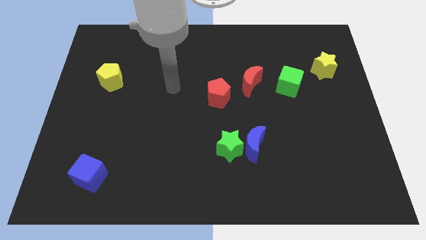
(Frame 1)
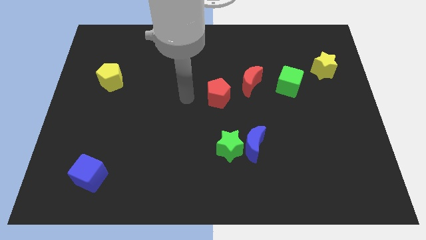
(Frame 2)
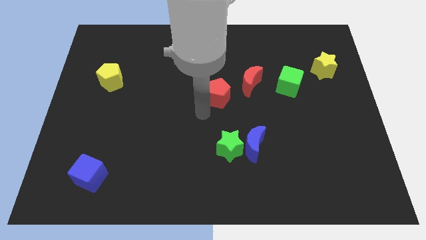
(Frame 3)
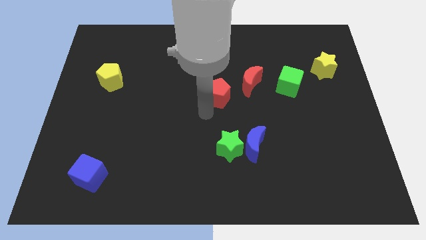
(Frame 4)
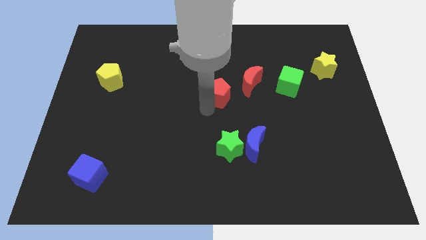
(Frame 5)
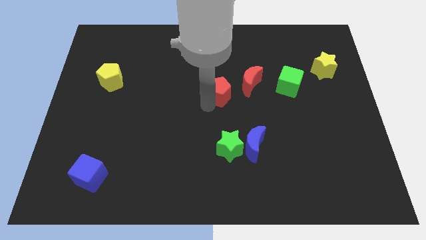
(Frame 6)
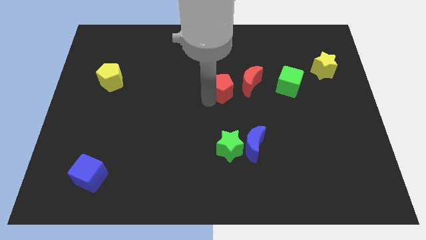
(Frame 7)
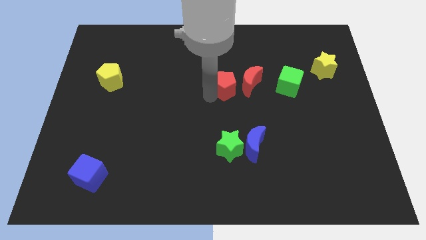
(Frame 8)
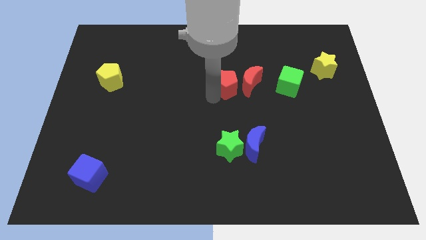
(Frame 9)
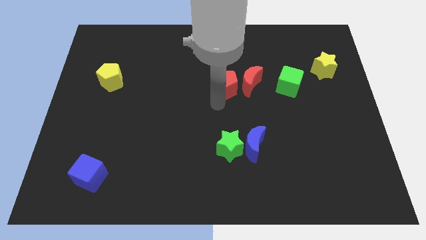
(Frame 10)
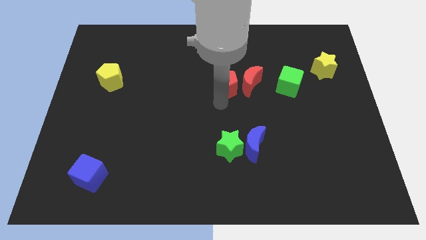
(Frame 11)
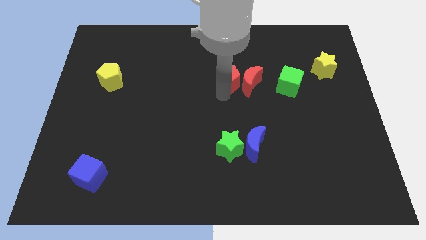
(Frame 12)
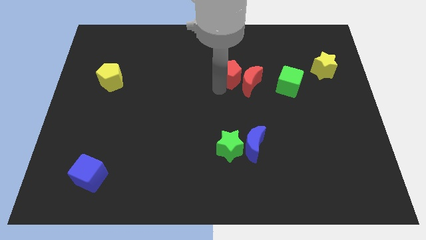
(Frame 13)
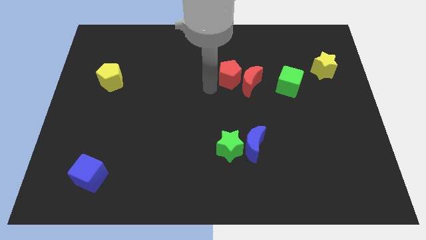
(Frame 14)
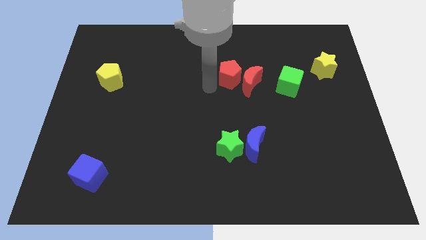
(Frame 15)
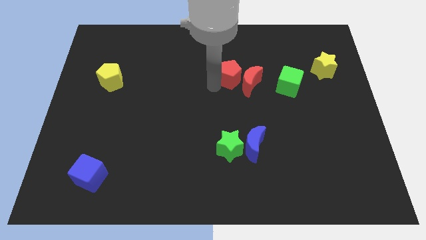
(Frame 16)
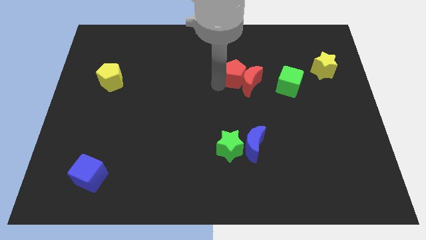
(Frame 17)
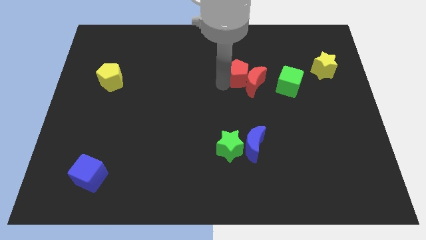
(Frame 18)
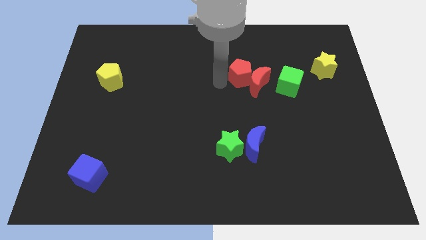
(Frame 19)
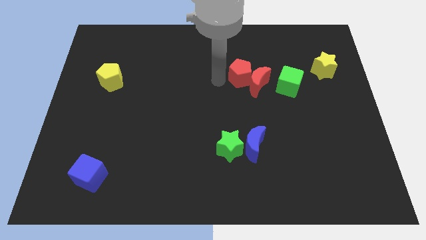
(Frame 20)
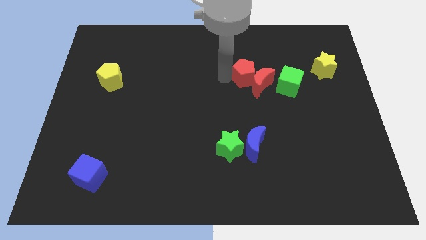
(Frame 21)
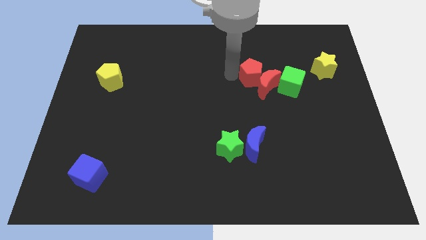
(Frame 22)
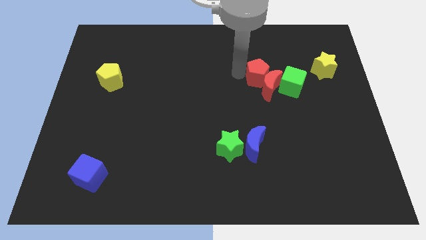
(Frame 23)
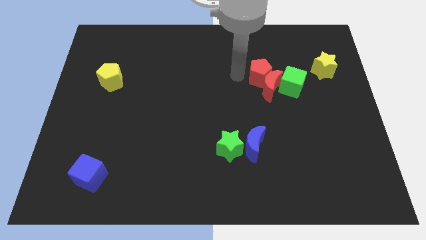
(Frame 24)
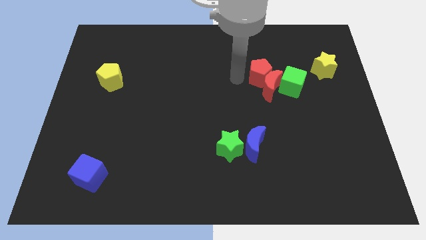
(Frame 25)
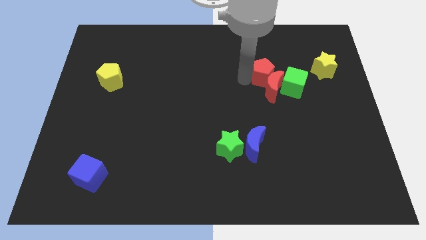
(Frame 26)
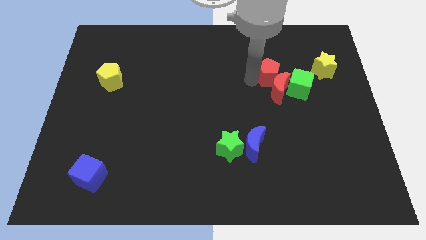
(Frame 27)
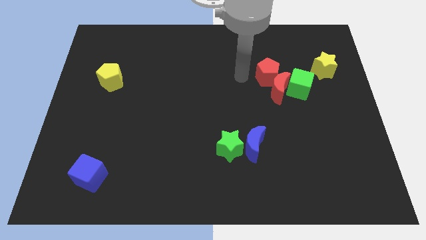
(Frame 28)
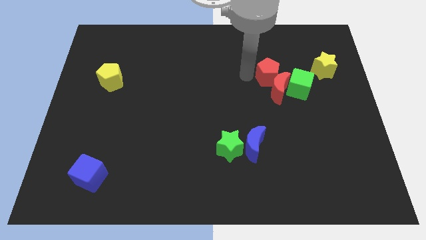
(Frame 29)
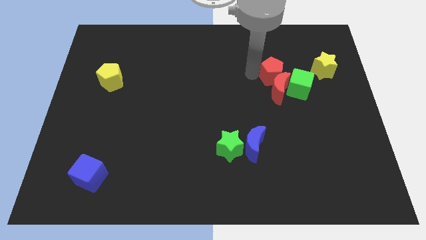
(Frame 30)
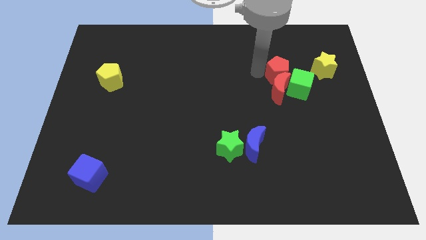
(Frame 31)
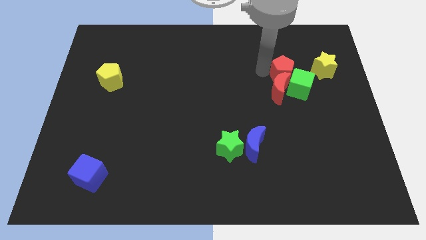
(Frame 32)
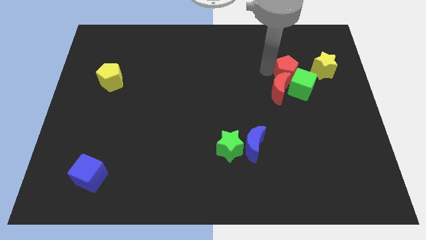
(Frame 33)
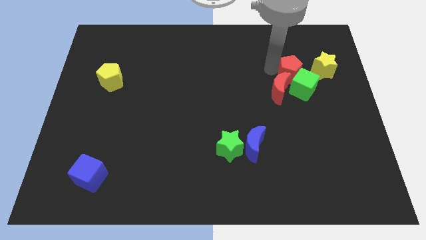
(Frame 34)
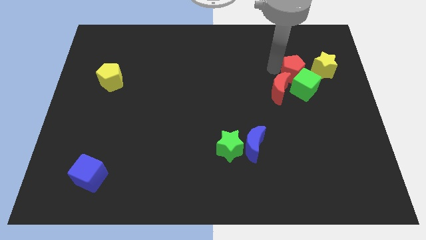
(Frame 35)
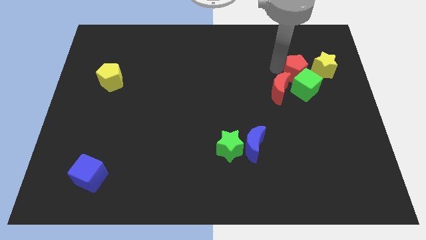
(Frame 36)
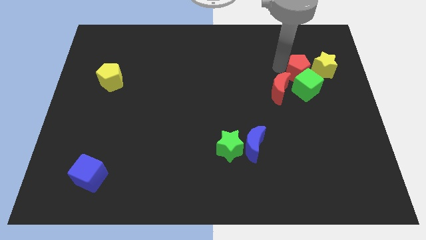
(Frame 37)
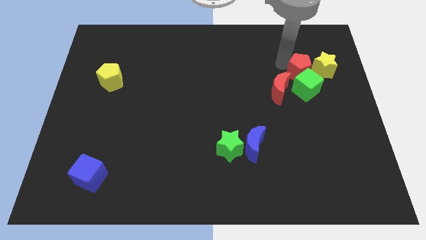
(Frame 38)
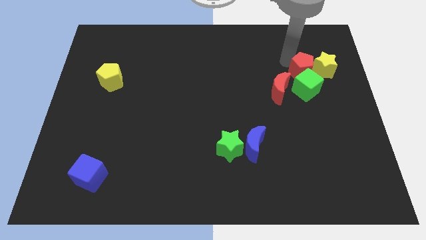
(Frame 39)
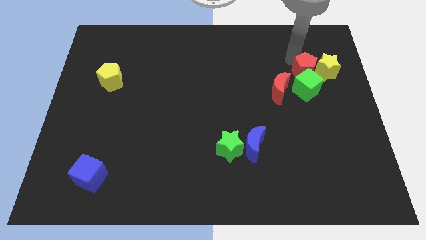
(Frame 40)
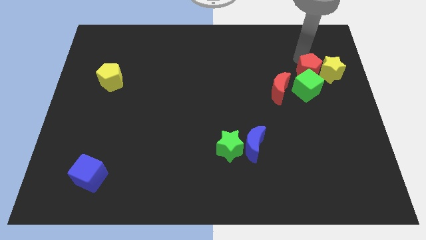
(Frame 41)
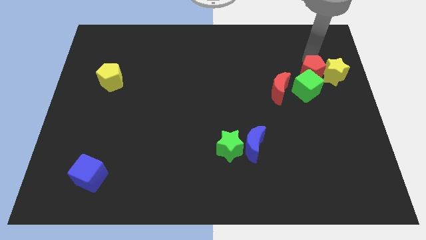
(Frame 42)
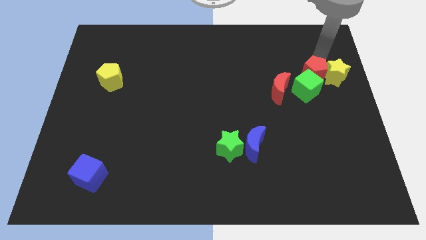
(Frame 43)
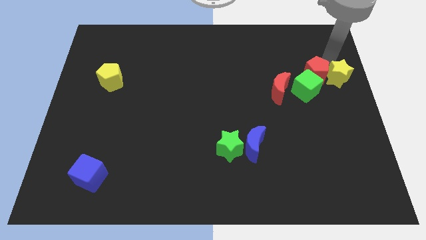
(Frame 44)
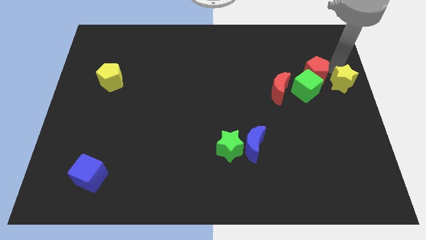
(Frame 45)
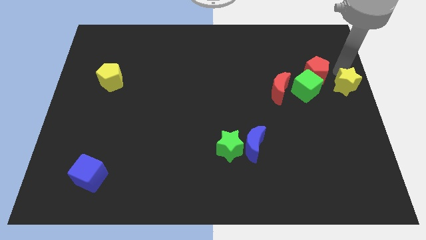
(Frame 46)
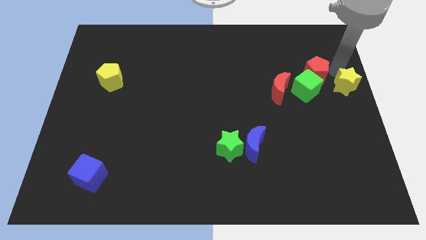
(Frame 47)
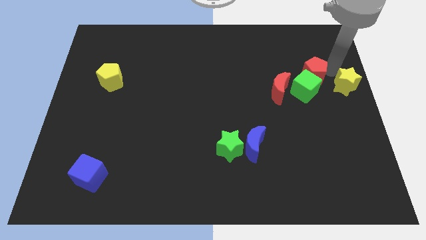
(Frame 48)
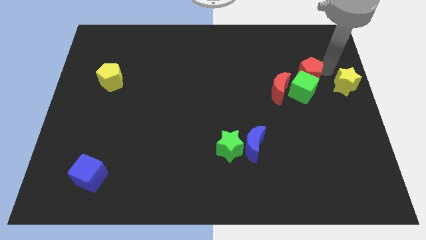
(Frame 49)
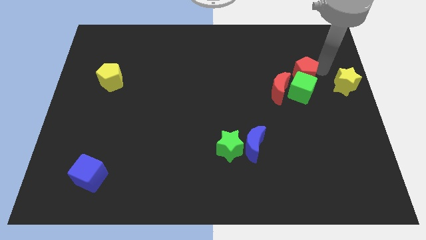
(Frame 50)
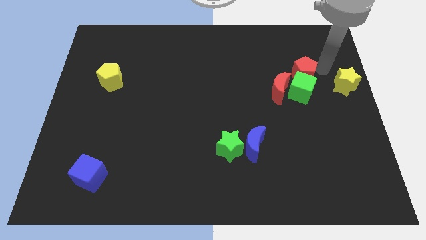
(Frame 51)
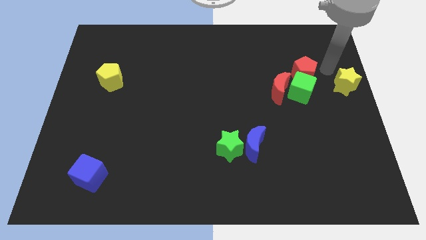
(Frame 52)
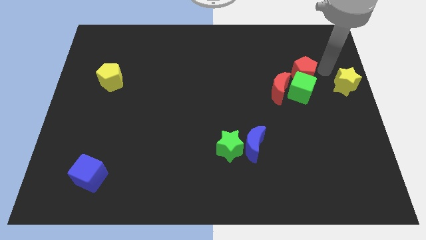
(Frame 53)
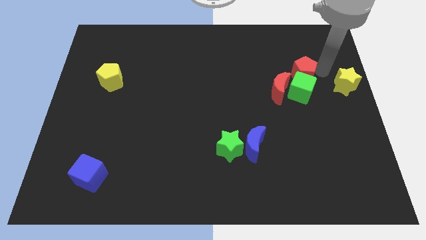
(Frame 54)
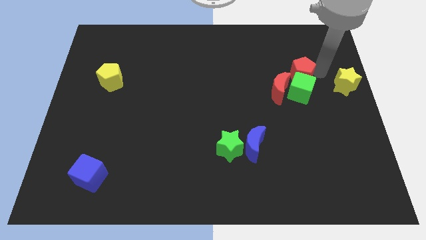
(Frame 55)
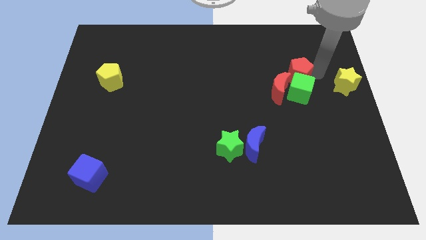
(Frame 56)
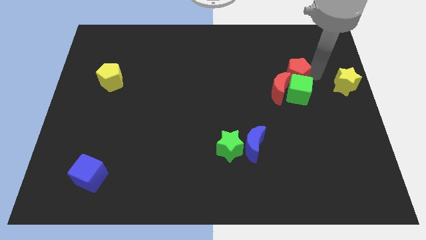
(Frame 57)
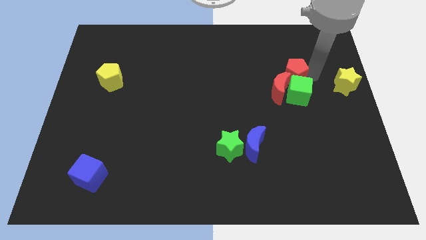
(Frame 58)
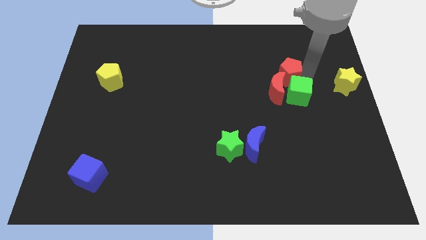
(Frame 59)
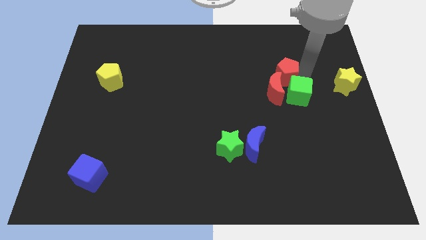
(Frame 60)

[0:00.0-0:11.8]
move the red pentagon to the top right side of the red moon
